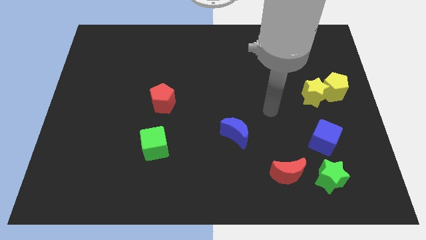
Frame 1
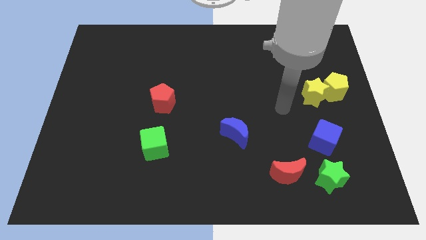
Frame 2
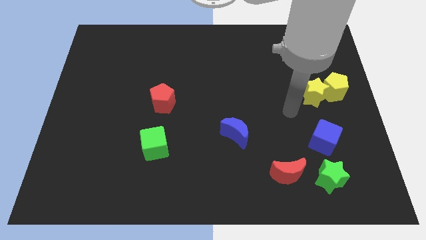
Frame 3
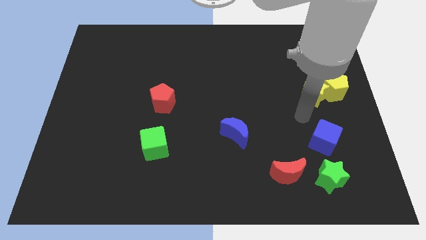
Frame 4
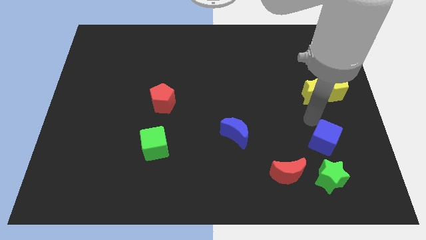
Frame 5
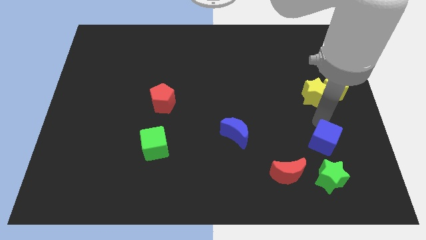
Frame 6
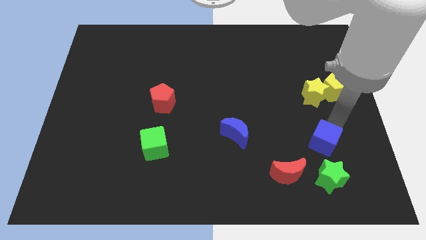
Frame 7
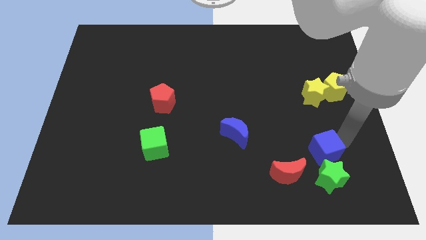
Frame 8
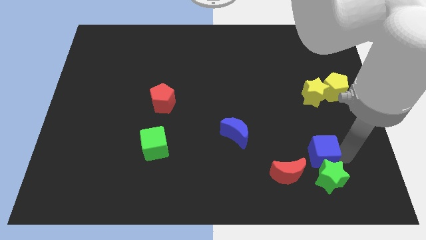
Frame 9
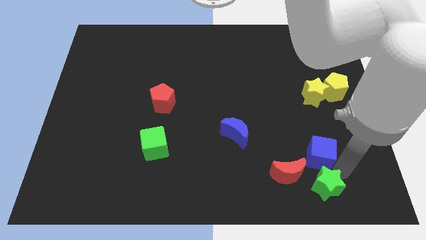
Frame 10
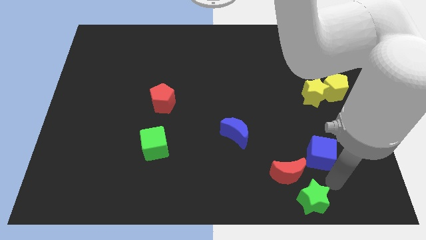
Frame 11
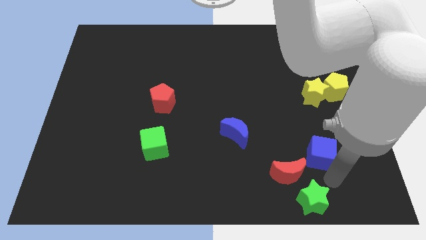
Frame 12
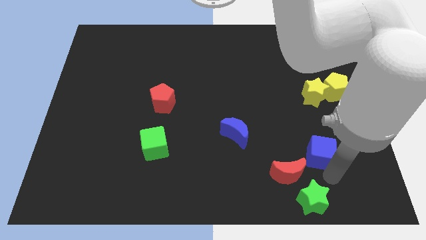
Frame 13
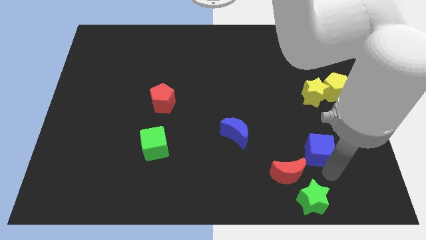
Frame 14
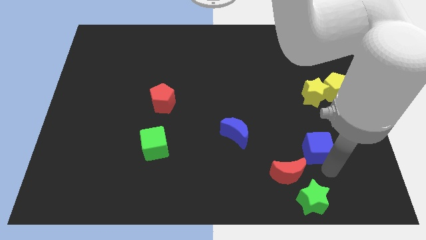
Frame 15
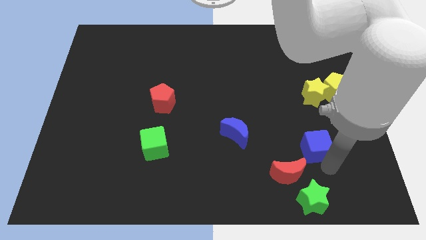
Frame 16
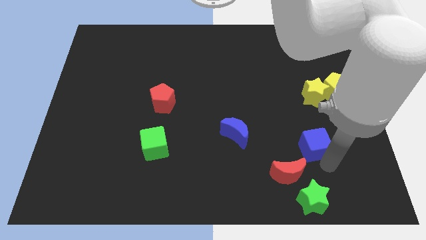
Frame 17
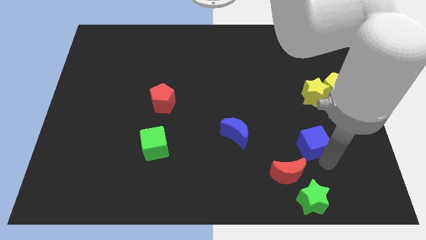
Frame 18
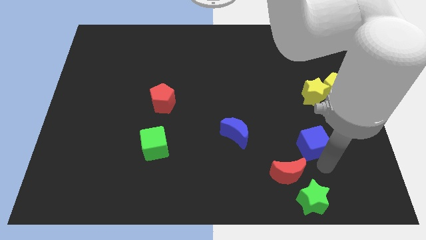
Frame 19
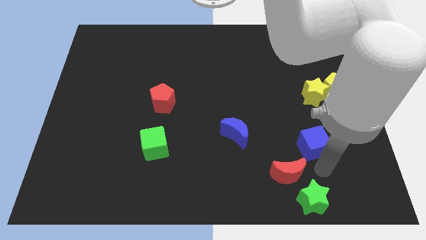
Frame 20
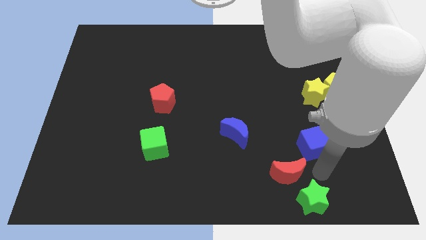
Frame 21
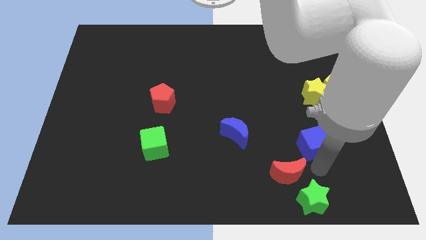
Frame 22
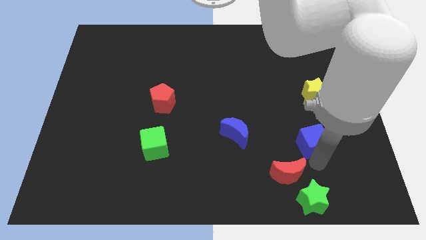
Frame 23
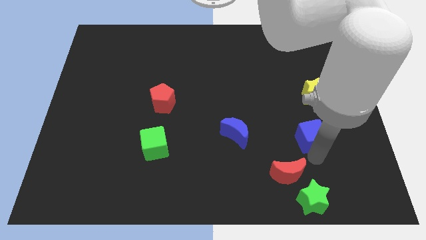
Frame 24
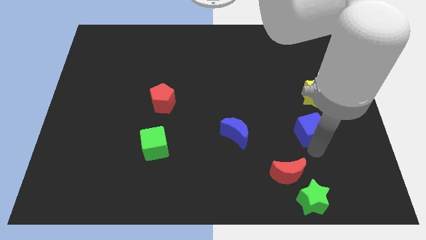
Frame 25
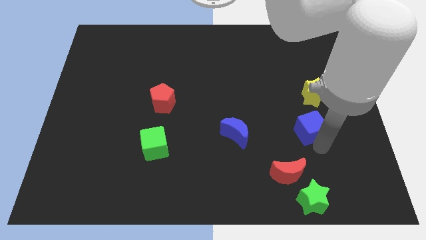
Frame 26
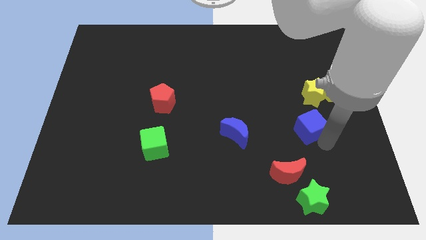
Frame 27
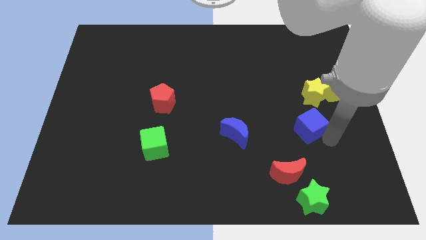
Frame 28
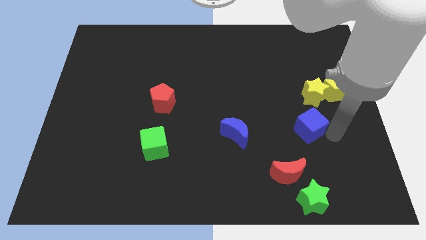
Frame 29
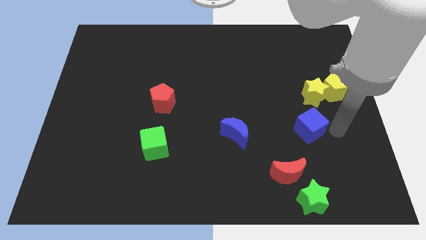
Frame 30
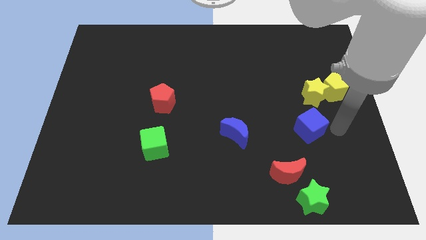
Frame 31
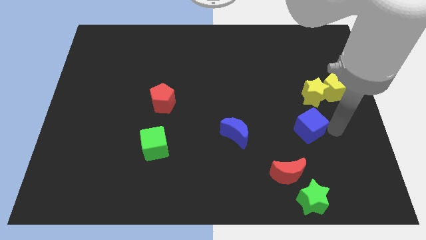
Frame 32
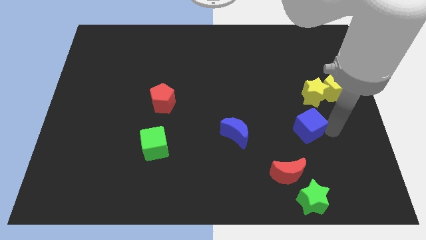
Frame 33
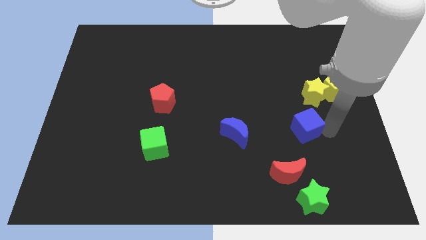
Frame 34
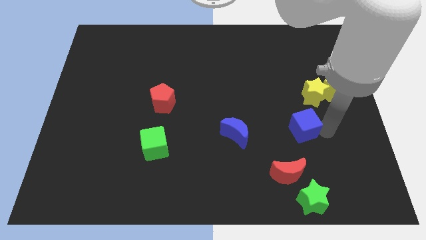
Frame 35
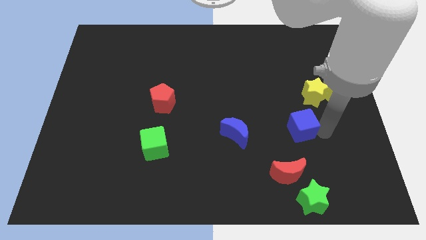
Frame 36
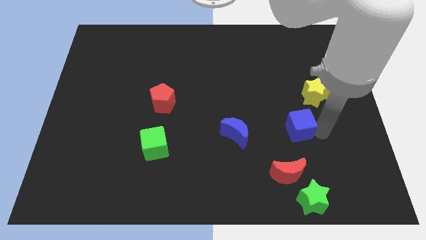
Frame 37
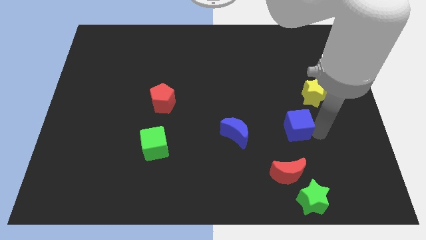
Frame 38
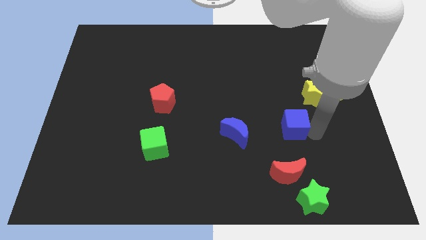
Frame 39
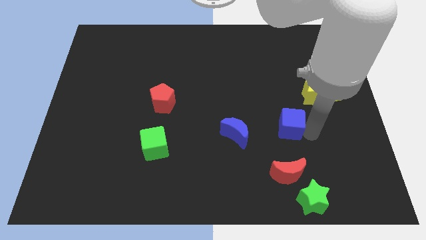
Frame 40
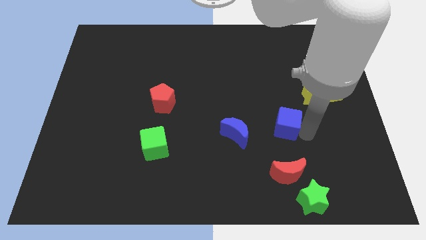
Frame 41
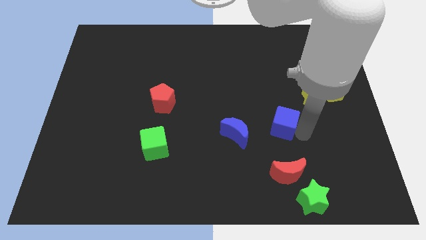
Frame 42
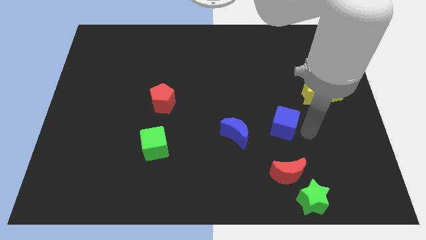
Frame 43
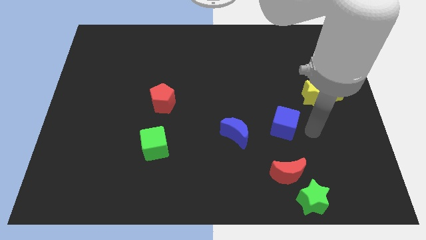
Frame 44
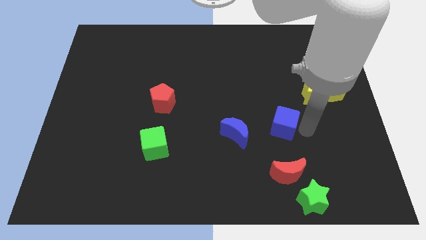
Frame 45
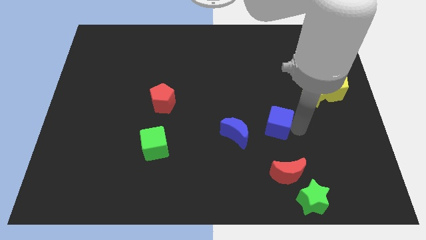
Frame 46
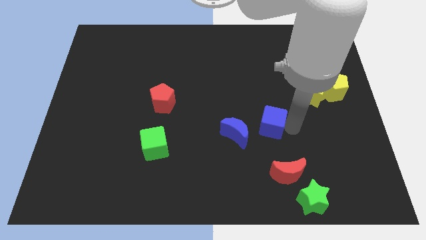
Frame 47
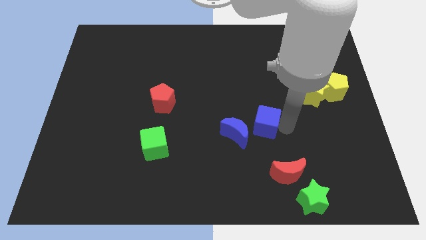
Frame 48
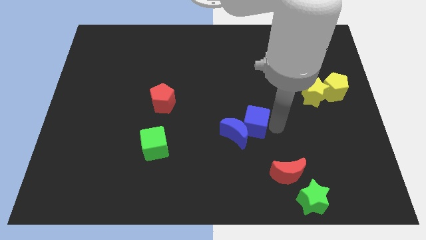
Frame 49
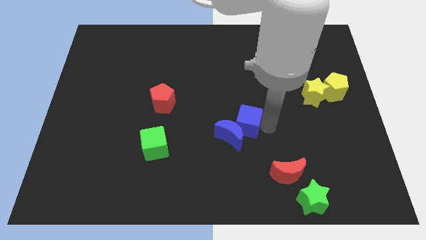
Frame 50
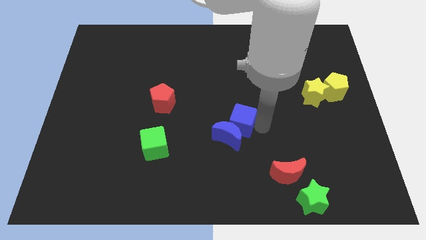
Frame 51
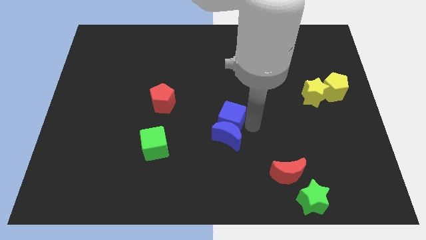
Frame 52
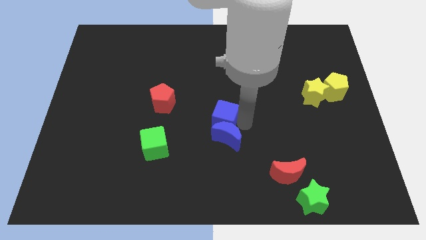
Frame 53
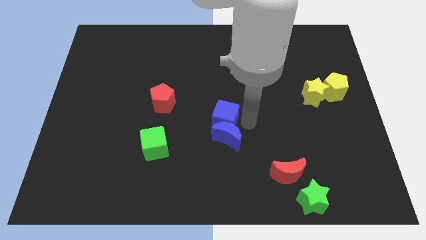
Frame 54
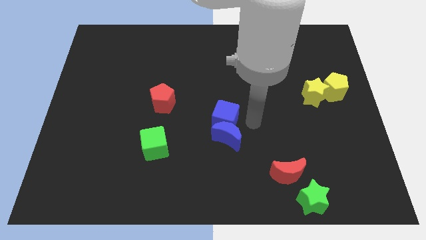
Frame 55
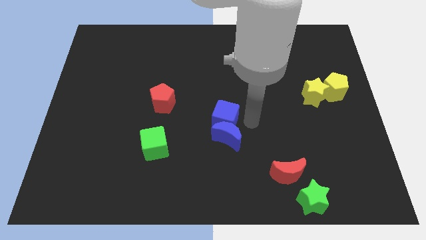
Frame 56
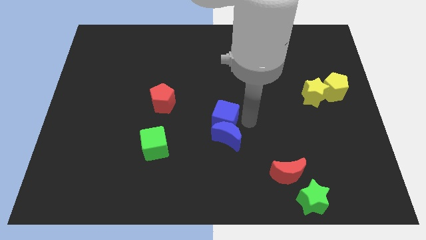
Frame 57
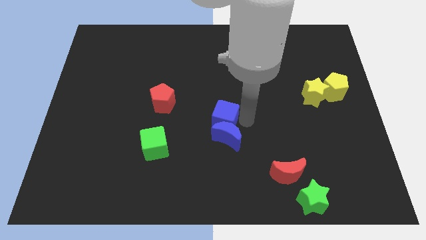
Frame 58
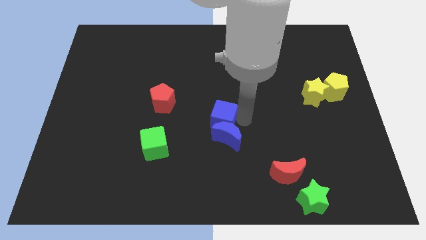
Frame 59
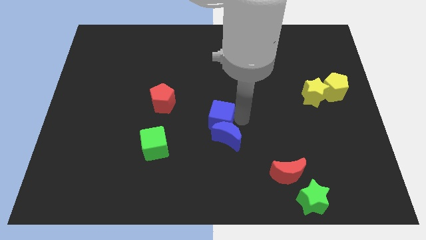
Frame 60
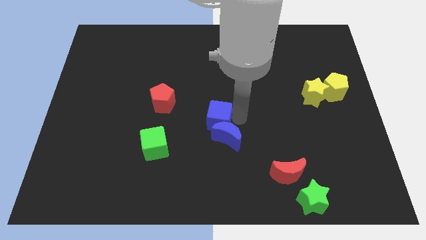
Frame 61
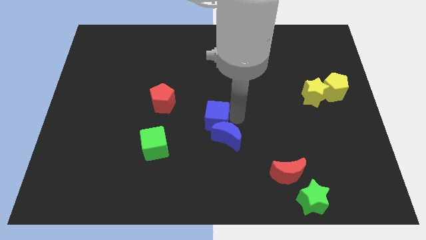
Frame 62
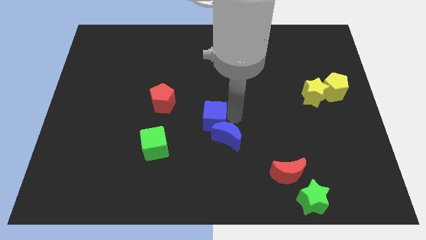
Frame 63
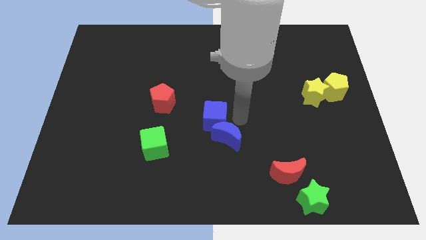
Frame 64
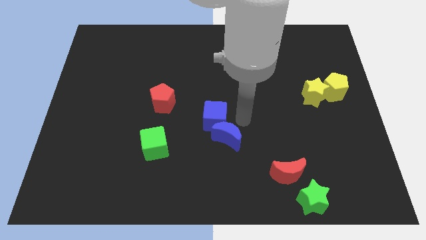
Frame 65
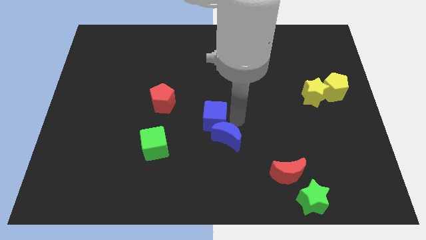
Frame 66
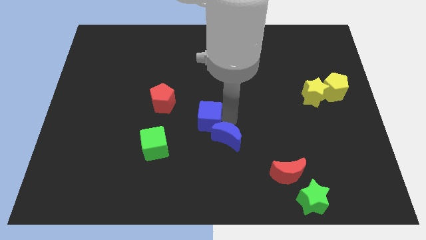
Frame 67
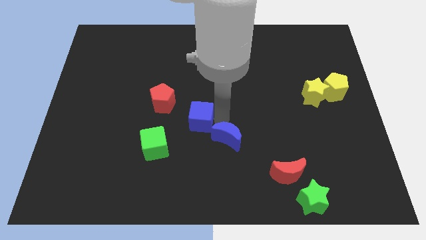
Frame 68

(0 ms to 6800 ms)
move the blue cube diagonally down and to the right of the red pentagon
